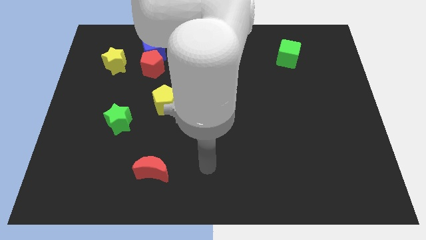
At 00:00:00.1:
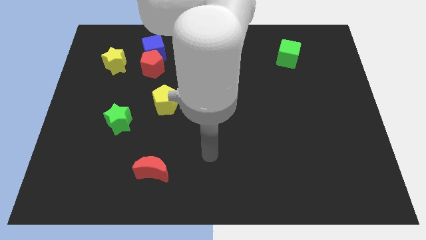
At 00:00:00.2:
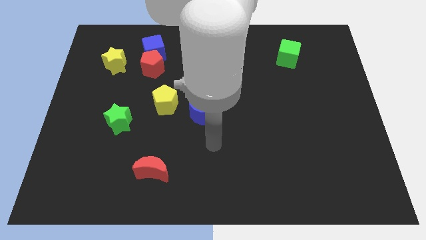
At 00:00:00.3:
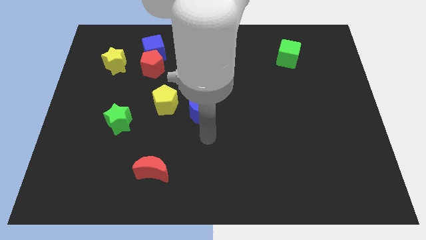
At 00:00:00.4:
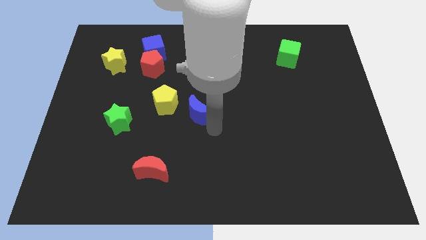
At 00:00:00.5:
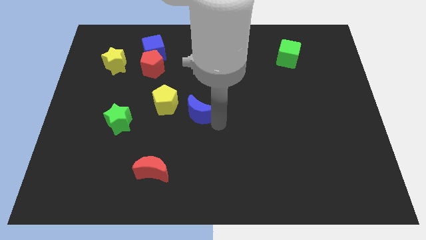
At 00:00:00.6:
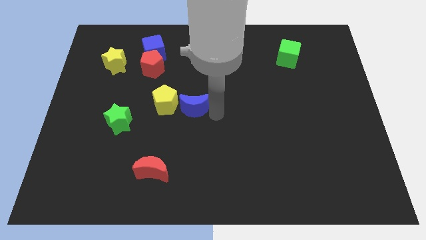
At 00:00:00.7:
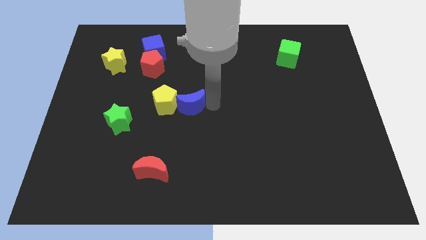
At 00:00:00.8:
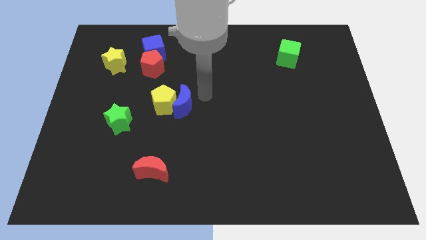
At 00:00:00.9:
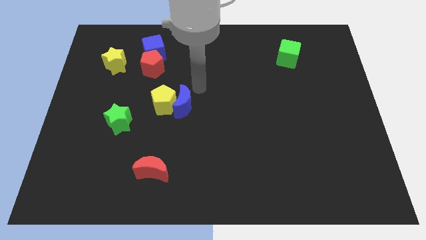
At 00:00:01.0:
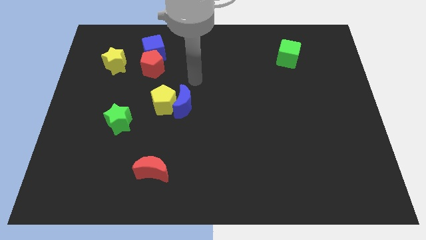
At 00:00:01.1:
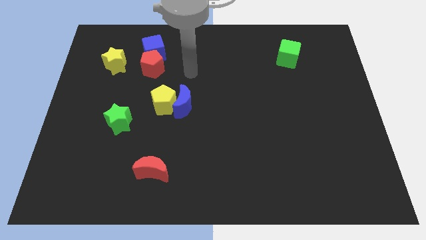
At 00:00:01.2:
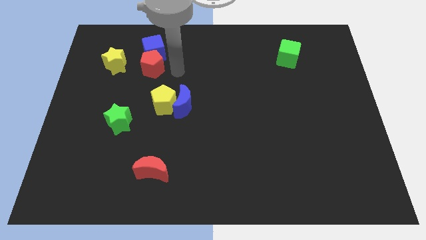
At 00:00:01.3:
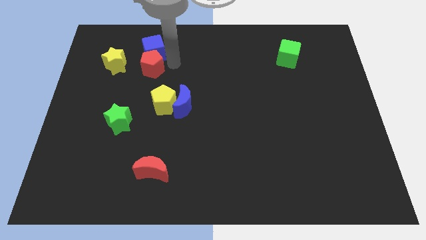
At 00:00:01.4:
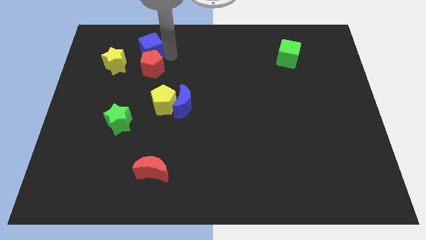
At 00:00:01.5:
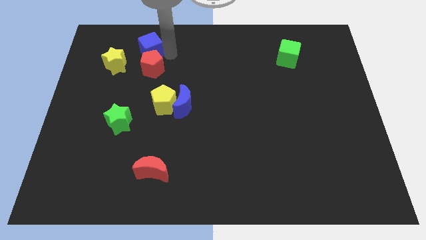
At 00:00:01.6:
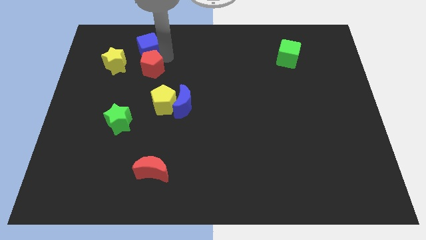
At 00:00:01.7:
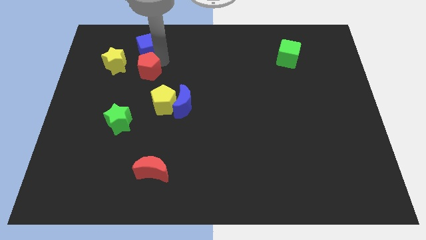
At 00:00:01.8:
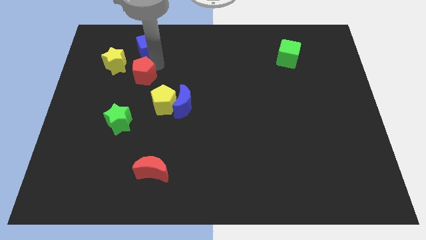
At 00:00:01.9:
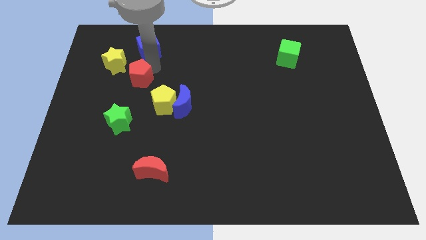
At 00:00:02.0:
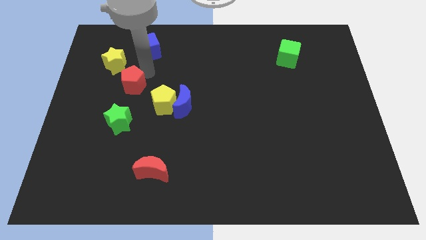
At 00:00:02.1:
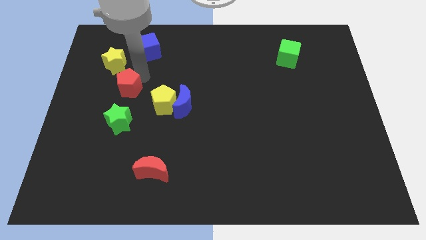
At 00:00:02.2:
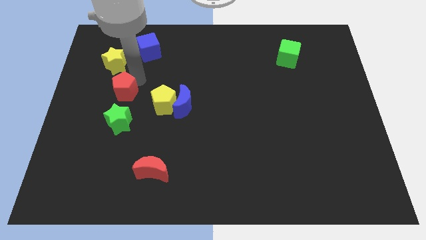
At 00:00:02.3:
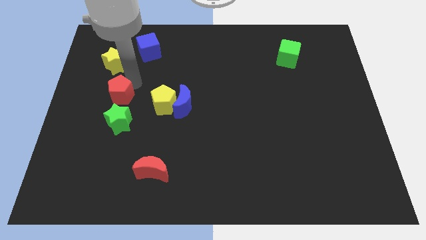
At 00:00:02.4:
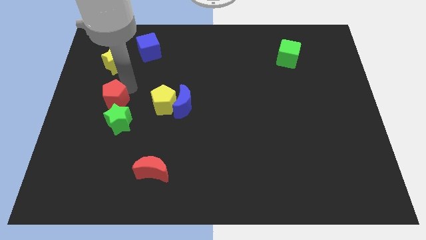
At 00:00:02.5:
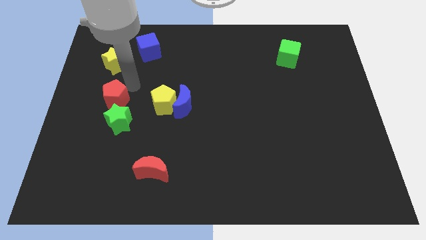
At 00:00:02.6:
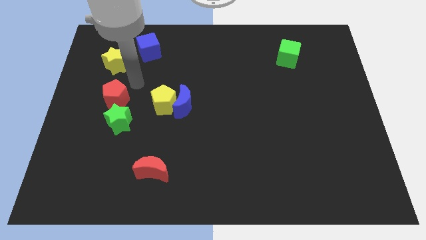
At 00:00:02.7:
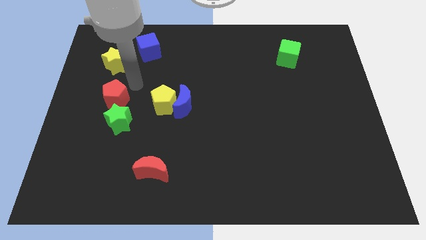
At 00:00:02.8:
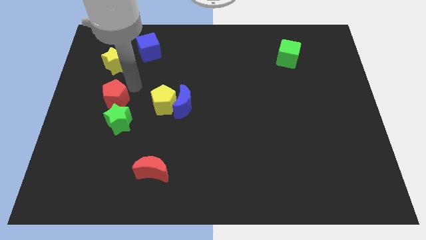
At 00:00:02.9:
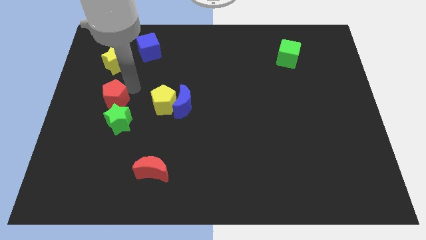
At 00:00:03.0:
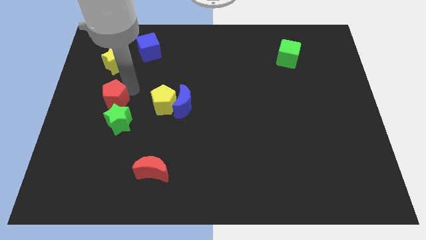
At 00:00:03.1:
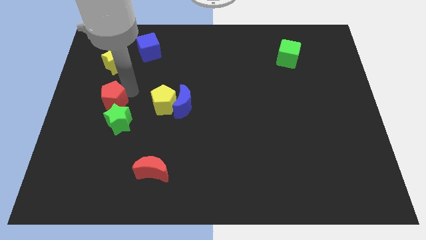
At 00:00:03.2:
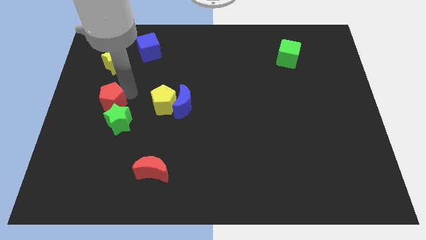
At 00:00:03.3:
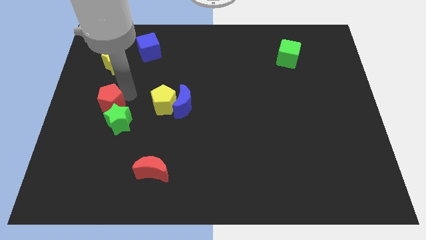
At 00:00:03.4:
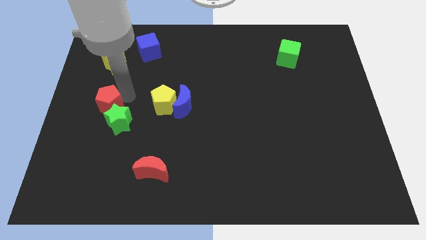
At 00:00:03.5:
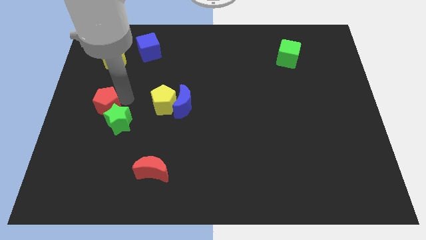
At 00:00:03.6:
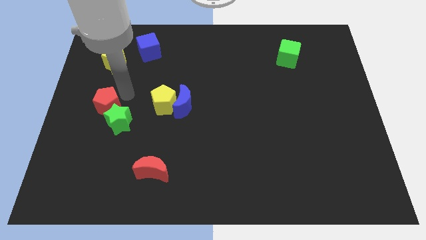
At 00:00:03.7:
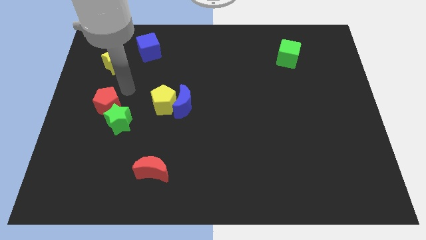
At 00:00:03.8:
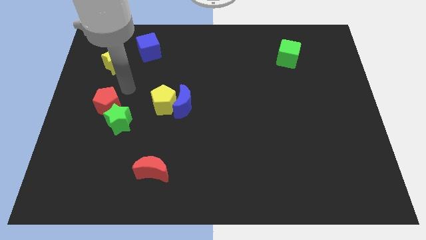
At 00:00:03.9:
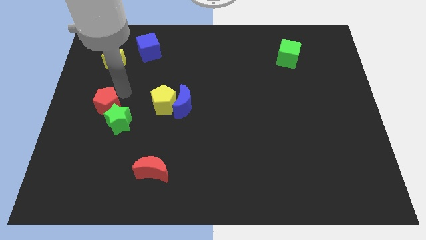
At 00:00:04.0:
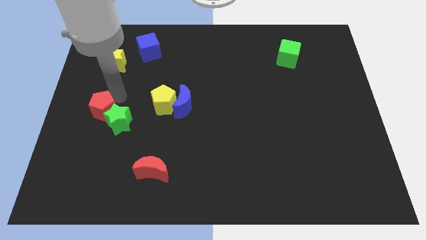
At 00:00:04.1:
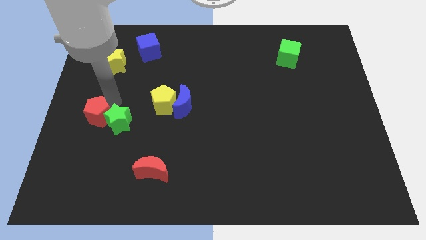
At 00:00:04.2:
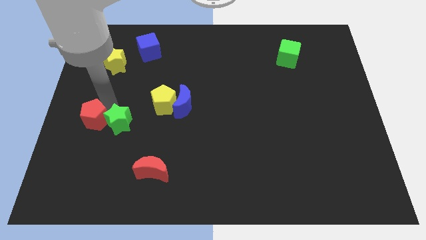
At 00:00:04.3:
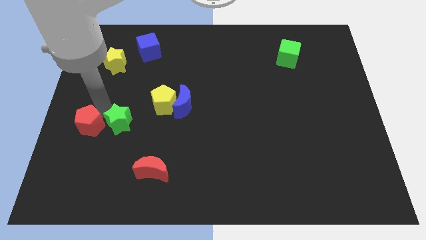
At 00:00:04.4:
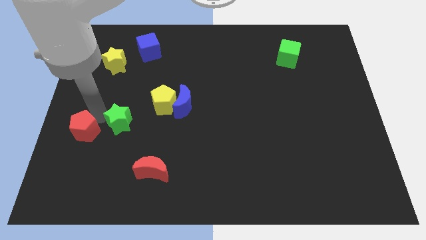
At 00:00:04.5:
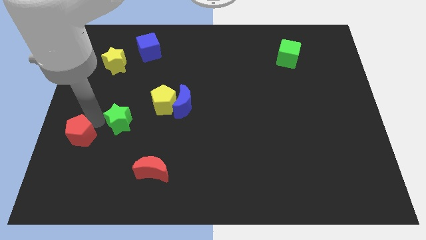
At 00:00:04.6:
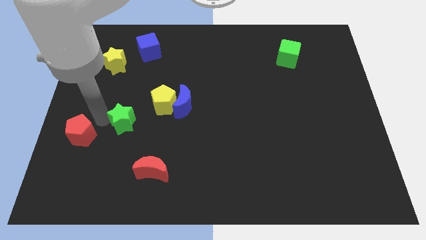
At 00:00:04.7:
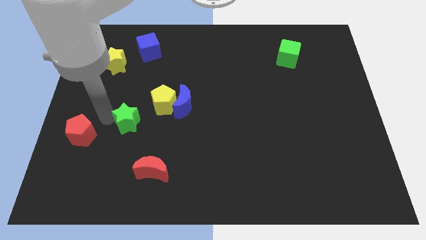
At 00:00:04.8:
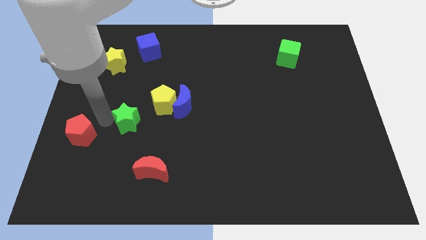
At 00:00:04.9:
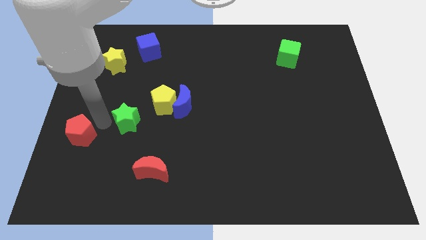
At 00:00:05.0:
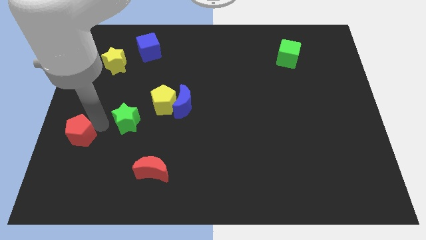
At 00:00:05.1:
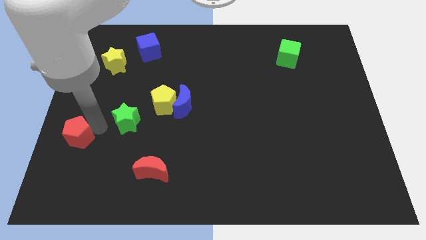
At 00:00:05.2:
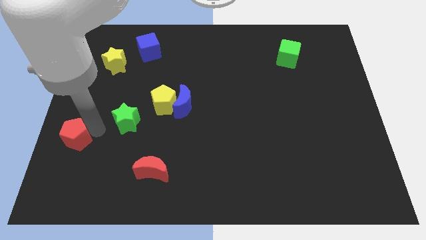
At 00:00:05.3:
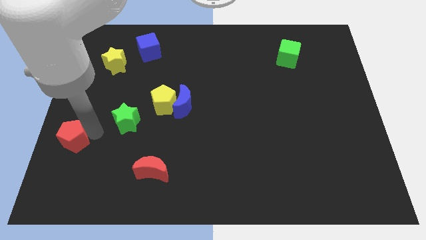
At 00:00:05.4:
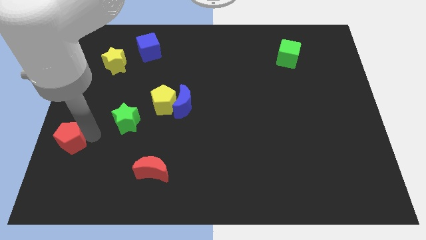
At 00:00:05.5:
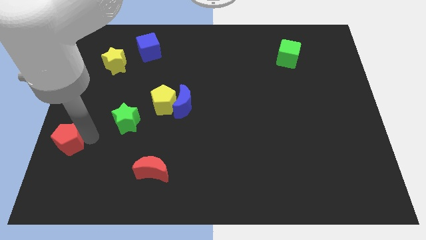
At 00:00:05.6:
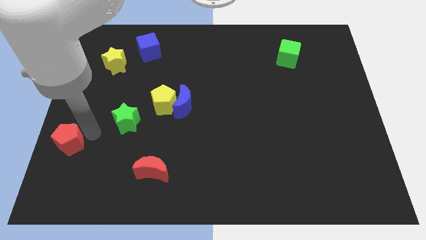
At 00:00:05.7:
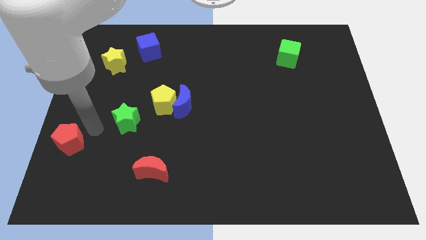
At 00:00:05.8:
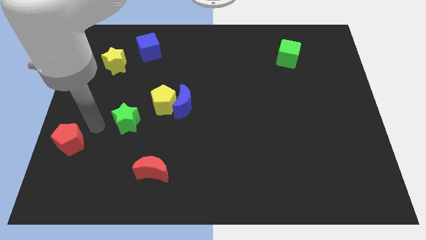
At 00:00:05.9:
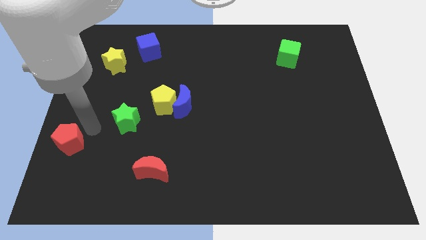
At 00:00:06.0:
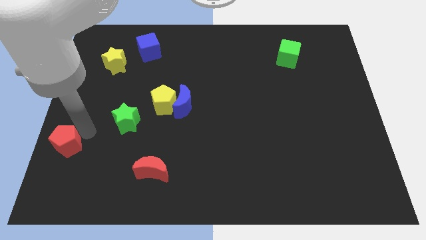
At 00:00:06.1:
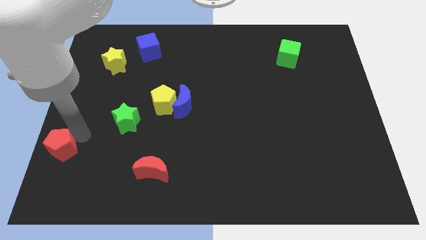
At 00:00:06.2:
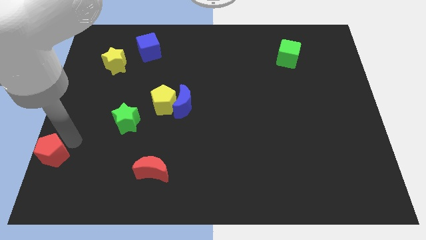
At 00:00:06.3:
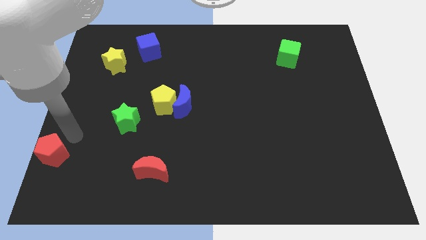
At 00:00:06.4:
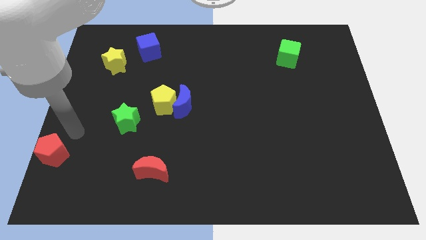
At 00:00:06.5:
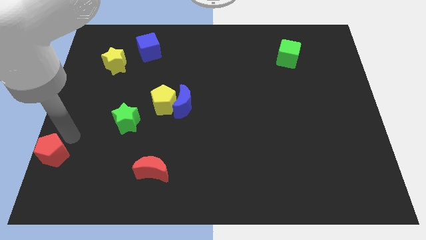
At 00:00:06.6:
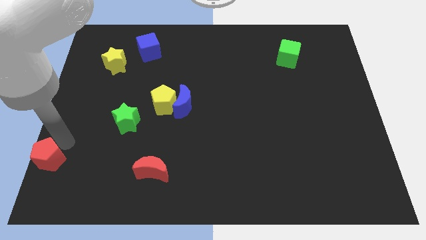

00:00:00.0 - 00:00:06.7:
slide the red pentagon to the lower left corner

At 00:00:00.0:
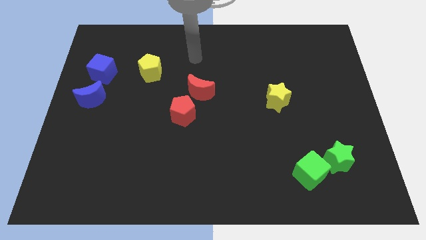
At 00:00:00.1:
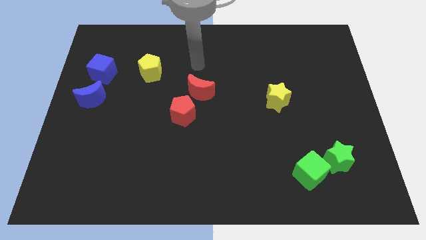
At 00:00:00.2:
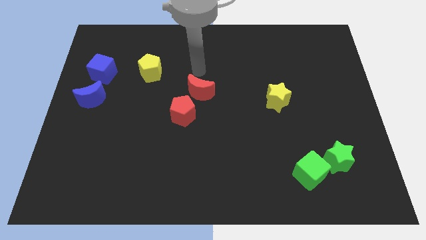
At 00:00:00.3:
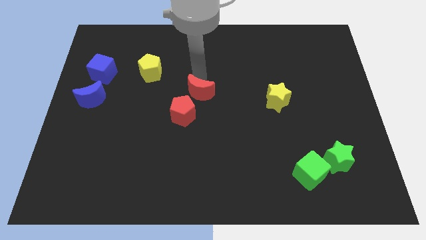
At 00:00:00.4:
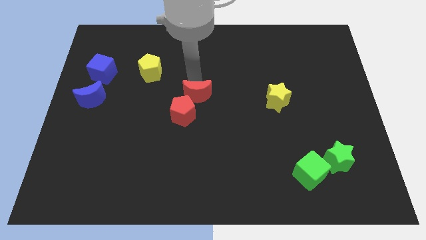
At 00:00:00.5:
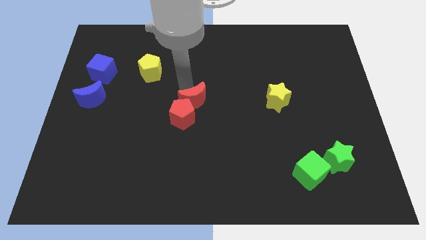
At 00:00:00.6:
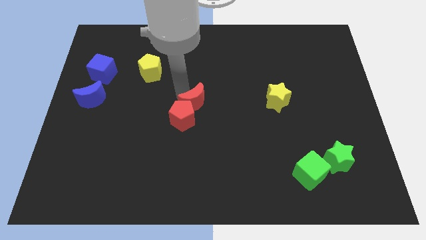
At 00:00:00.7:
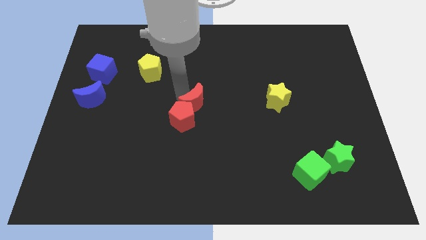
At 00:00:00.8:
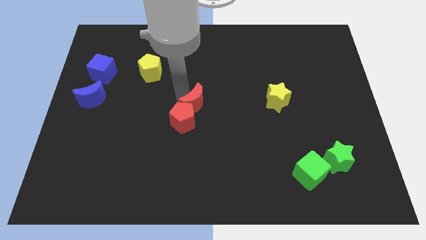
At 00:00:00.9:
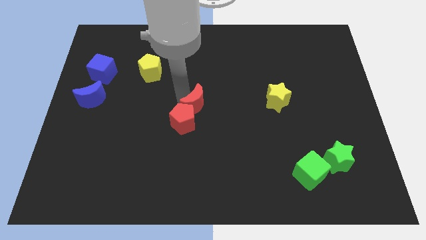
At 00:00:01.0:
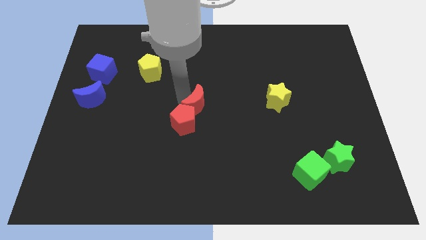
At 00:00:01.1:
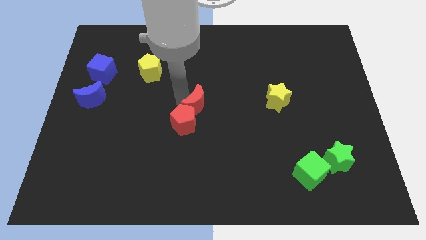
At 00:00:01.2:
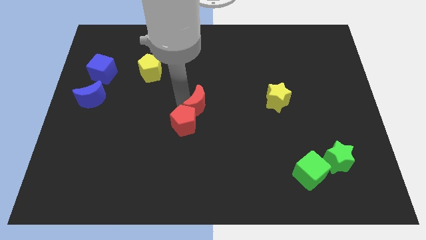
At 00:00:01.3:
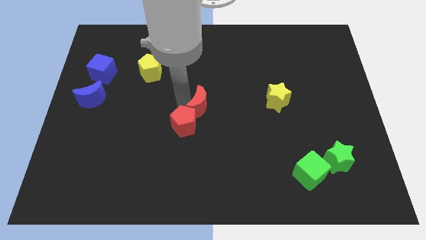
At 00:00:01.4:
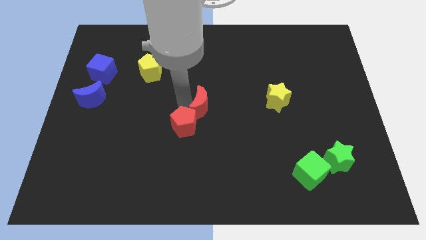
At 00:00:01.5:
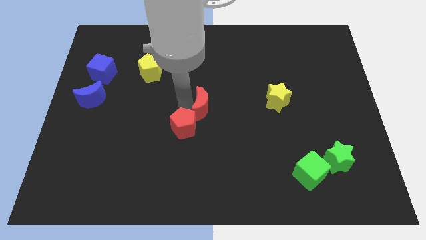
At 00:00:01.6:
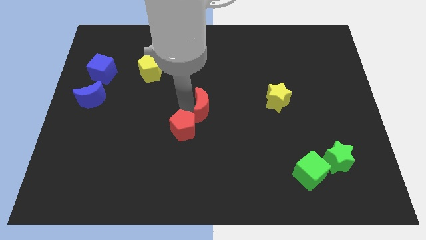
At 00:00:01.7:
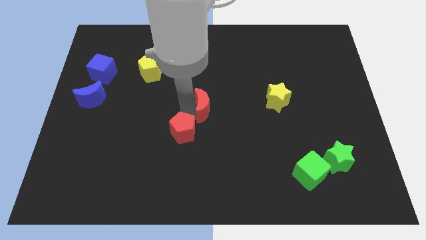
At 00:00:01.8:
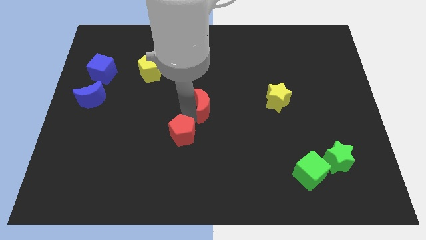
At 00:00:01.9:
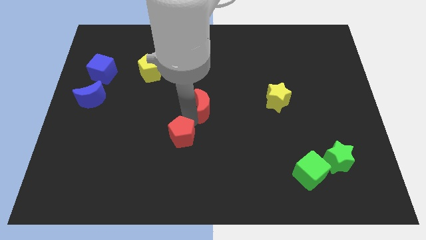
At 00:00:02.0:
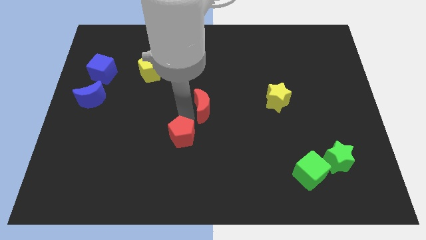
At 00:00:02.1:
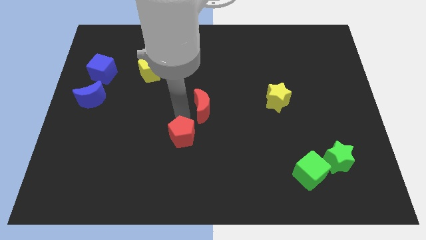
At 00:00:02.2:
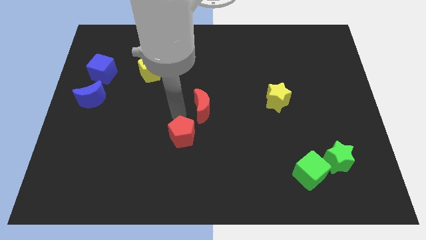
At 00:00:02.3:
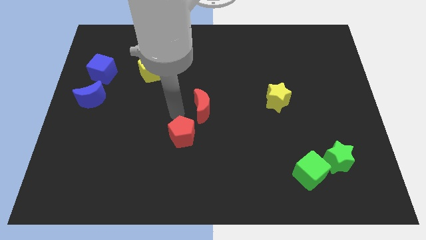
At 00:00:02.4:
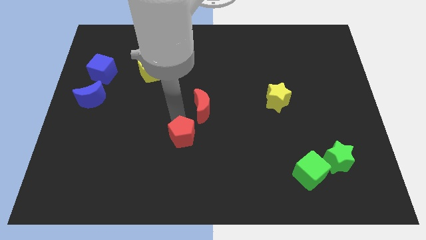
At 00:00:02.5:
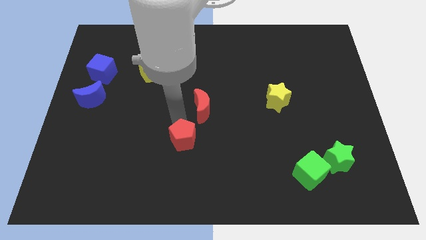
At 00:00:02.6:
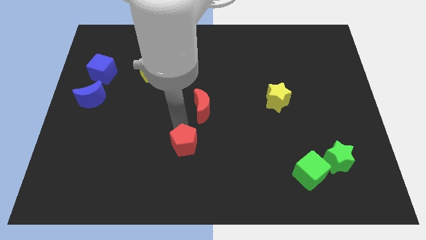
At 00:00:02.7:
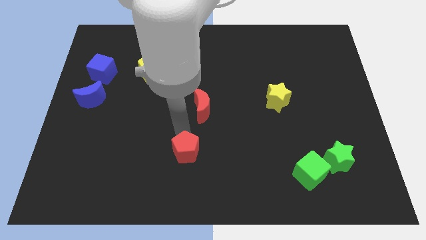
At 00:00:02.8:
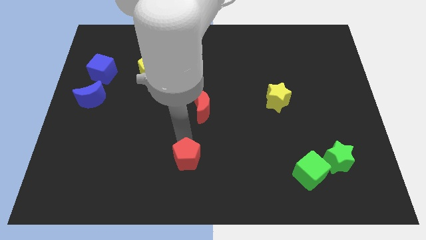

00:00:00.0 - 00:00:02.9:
move the red pentagon to the bottom
